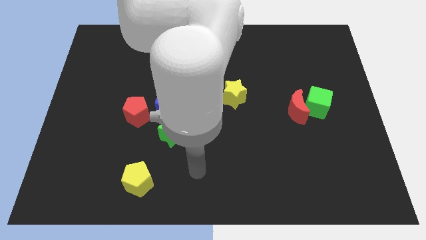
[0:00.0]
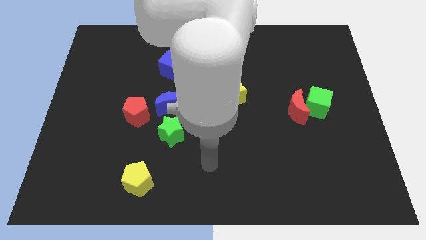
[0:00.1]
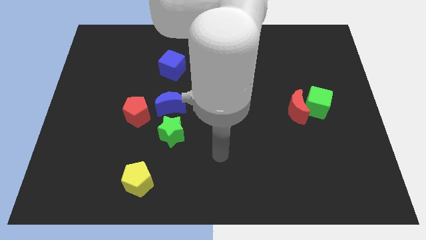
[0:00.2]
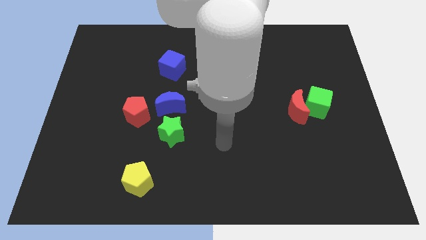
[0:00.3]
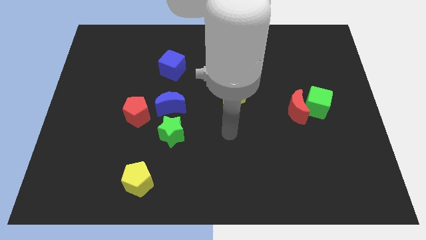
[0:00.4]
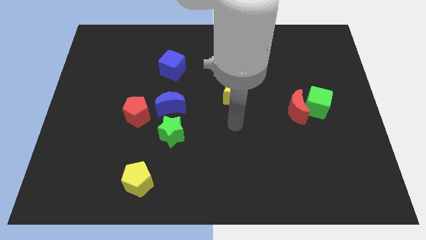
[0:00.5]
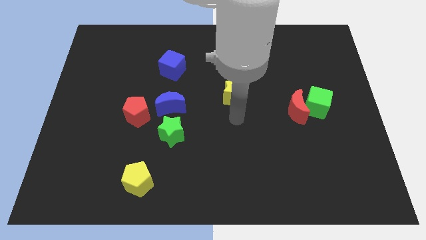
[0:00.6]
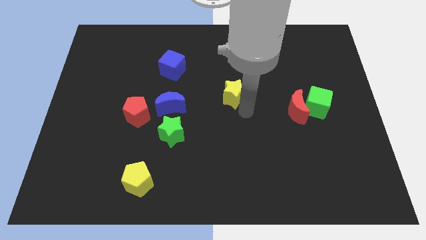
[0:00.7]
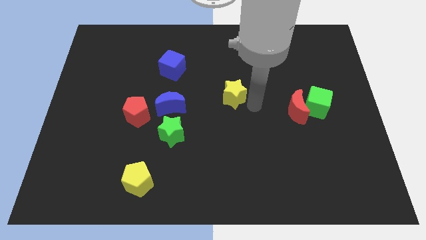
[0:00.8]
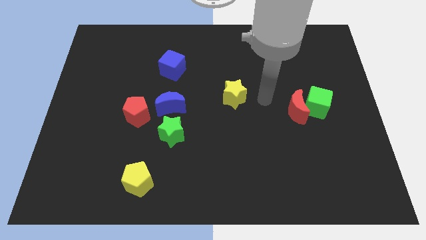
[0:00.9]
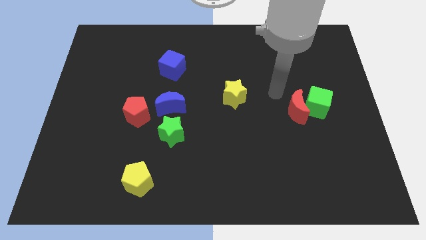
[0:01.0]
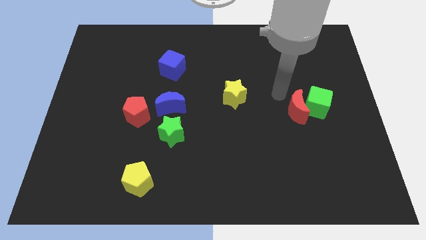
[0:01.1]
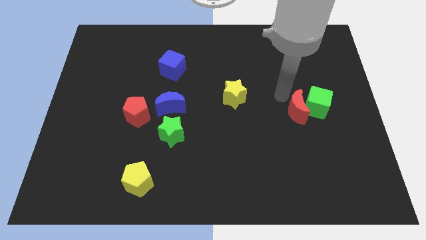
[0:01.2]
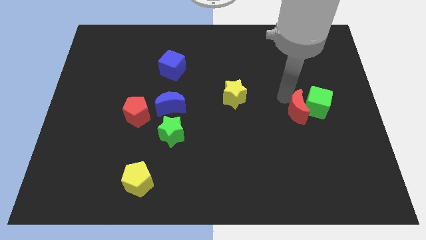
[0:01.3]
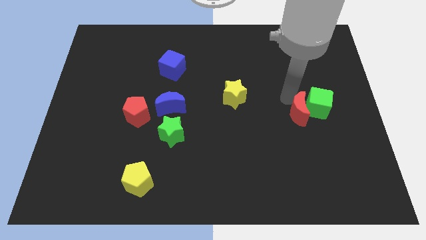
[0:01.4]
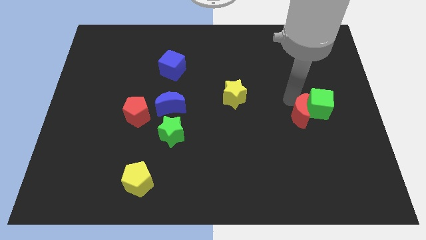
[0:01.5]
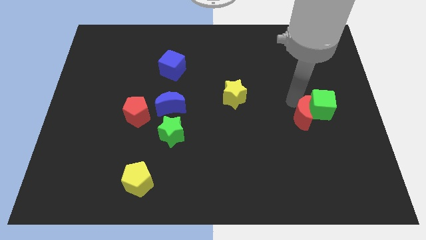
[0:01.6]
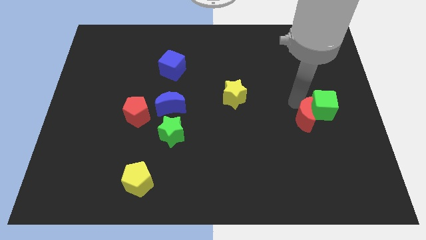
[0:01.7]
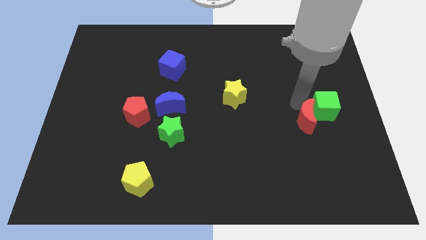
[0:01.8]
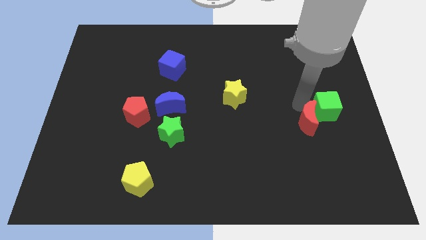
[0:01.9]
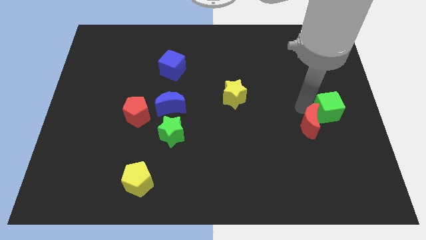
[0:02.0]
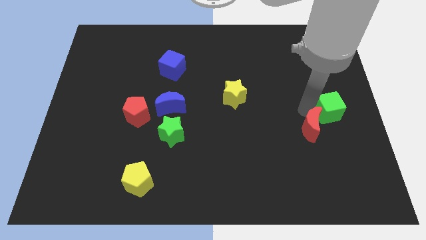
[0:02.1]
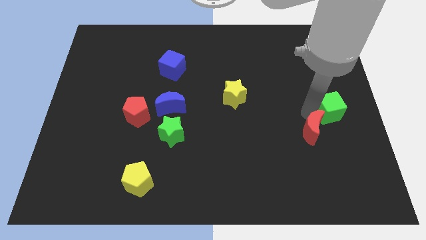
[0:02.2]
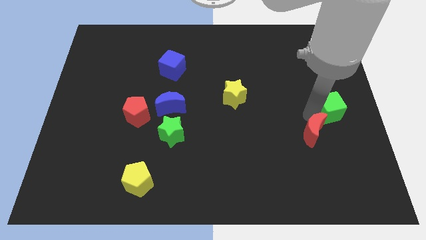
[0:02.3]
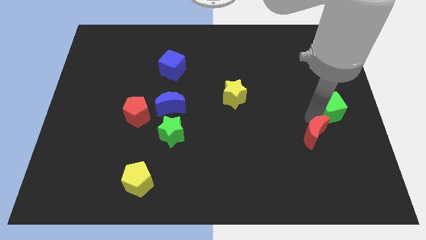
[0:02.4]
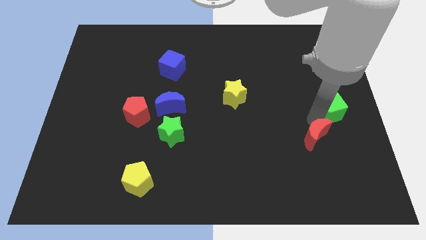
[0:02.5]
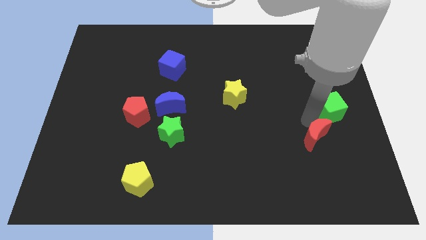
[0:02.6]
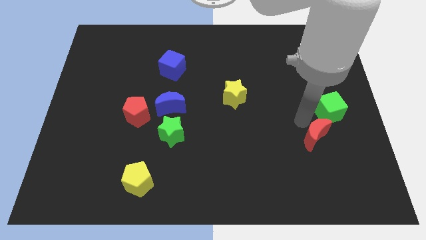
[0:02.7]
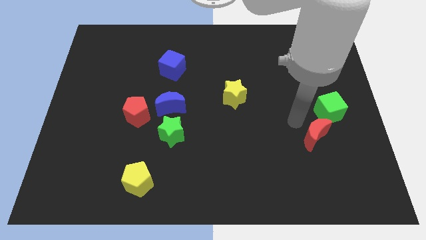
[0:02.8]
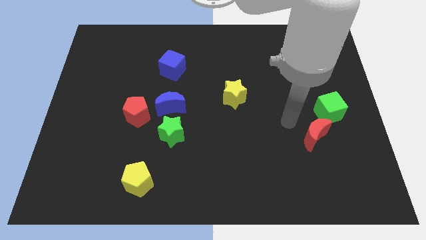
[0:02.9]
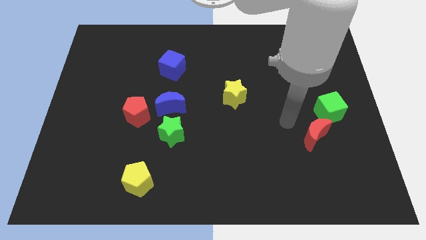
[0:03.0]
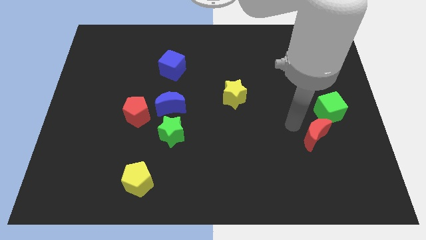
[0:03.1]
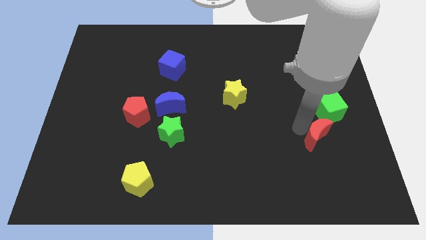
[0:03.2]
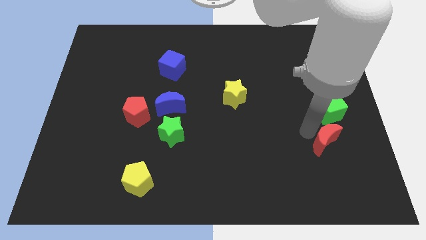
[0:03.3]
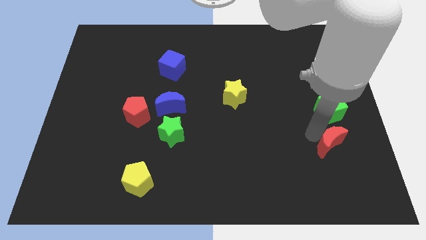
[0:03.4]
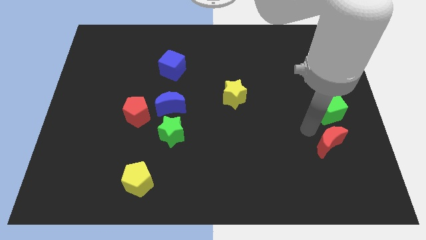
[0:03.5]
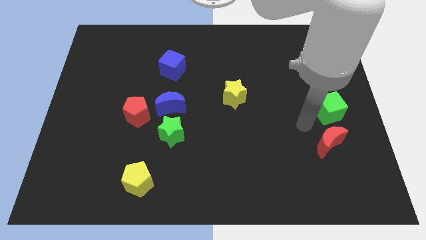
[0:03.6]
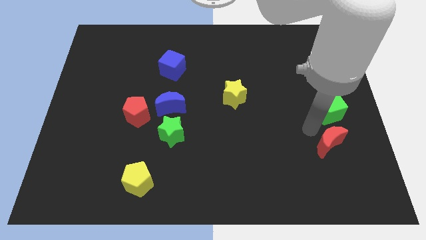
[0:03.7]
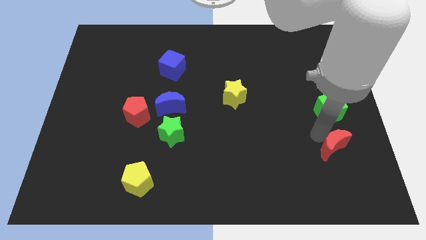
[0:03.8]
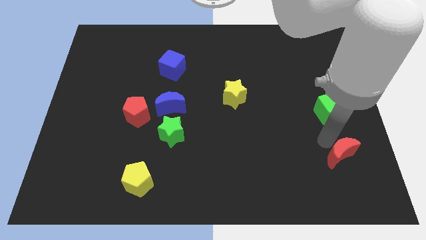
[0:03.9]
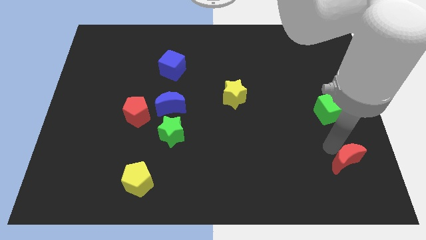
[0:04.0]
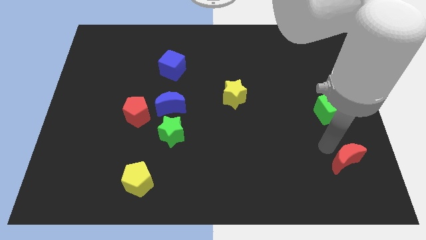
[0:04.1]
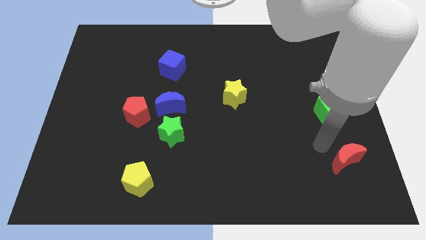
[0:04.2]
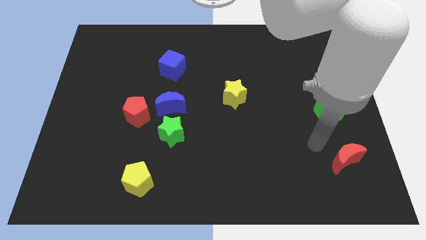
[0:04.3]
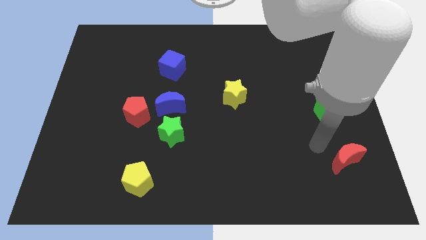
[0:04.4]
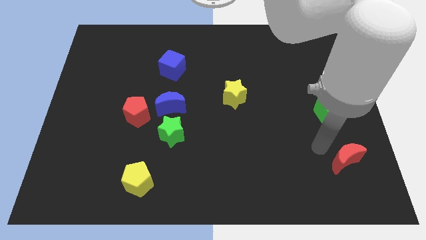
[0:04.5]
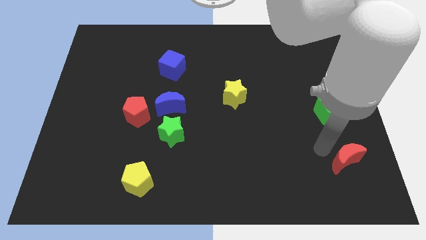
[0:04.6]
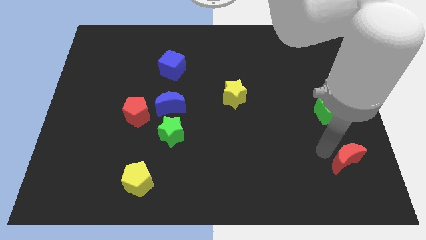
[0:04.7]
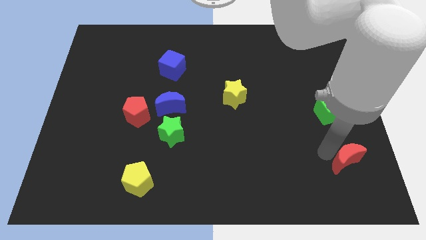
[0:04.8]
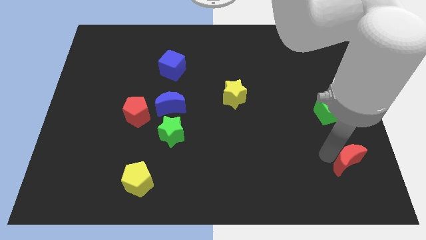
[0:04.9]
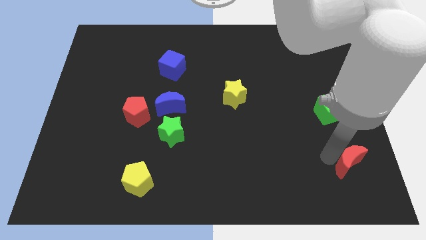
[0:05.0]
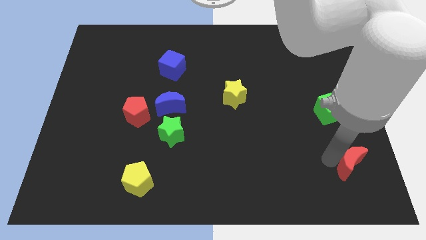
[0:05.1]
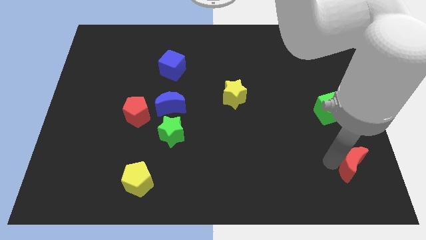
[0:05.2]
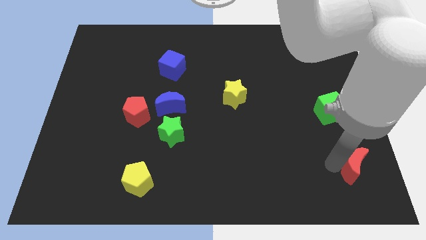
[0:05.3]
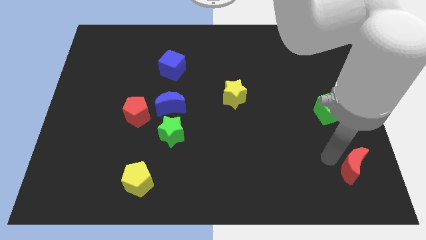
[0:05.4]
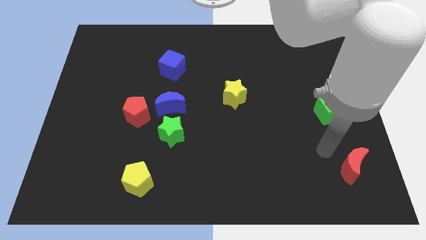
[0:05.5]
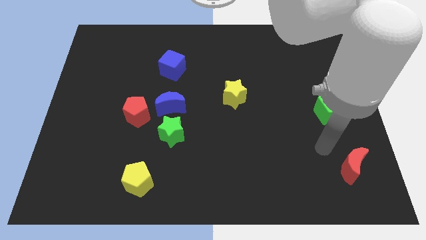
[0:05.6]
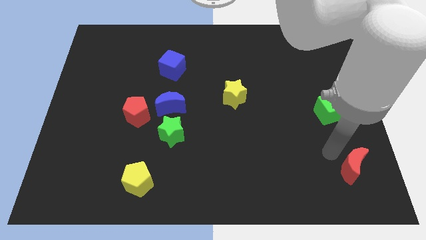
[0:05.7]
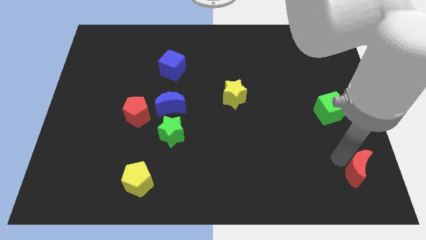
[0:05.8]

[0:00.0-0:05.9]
slide the red moon to the bottom right

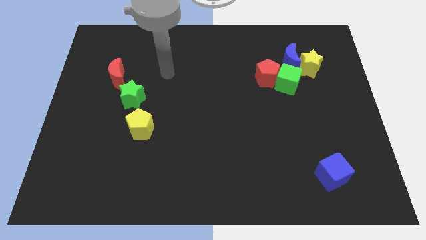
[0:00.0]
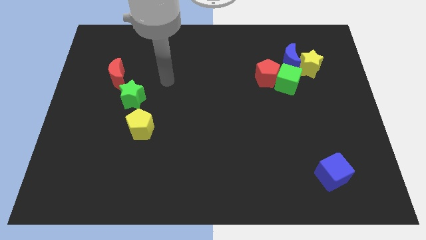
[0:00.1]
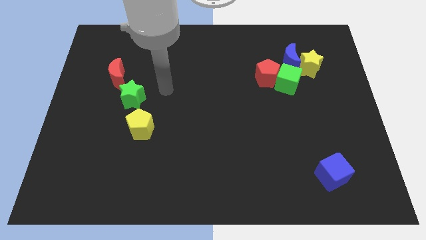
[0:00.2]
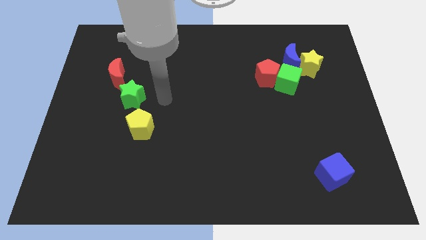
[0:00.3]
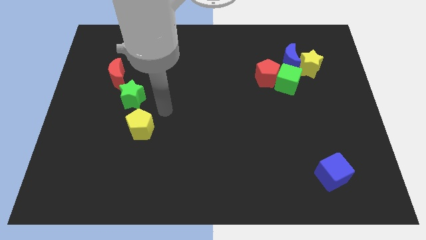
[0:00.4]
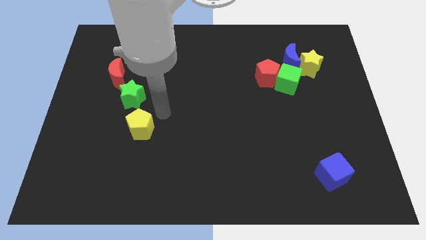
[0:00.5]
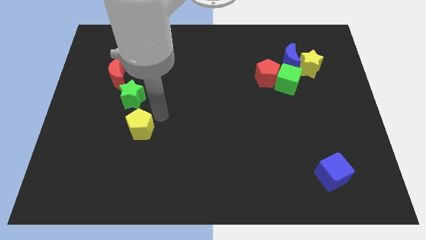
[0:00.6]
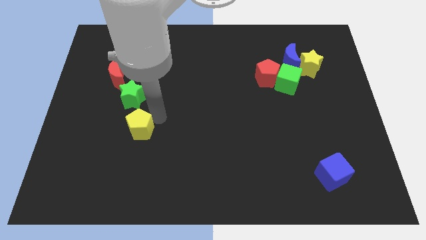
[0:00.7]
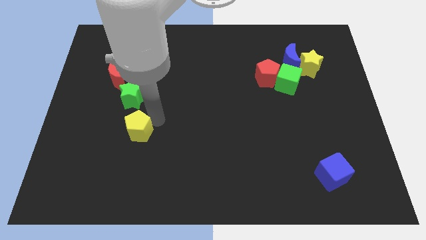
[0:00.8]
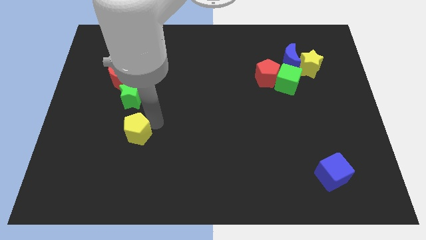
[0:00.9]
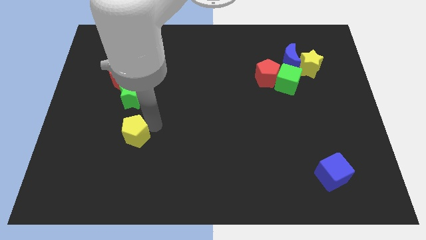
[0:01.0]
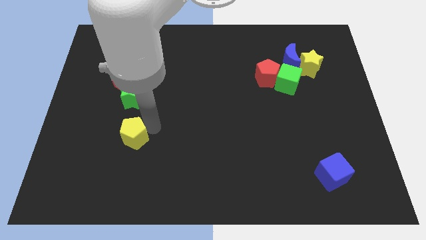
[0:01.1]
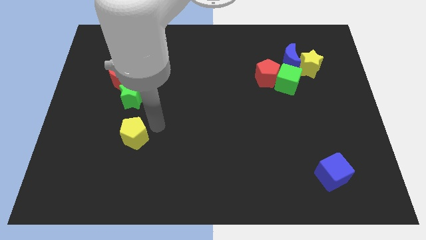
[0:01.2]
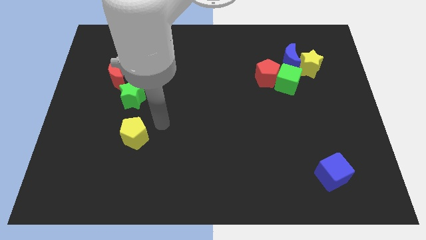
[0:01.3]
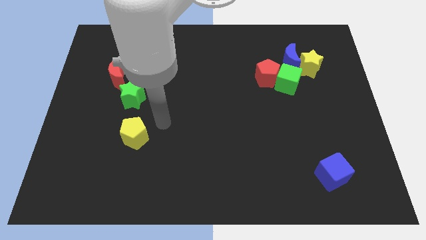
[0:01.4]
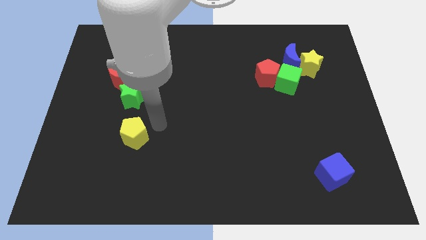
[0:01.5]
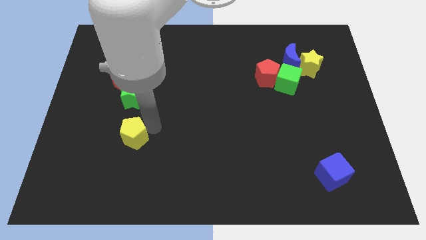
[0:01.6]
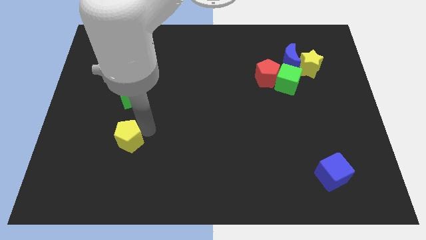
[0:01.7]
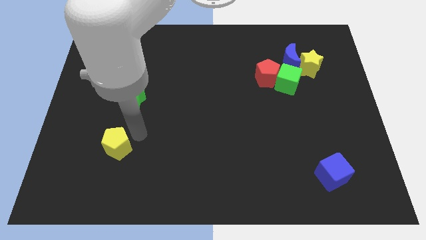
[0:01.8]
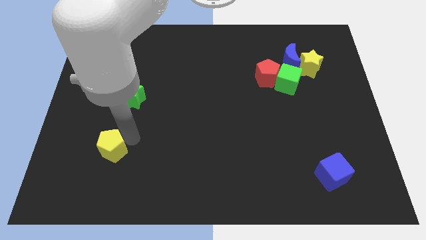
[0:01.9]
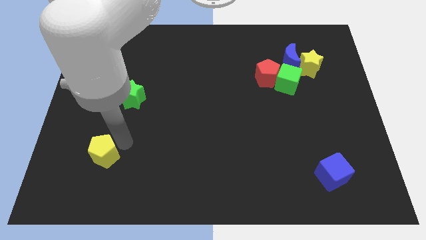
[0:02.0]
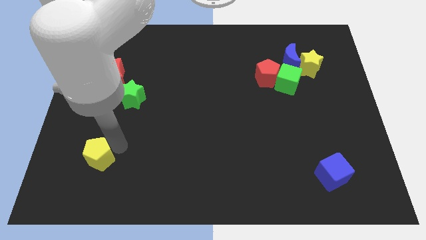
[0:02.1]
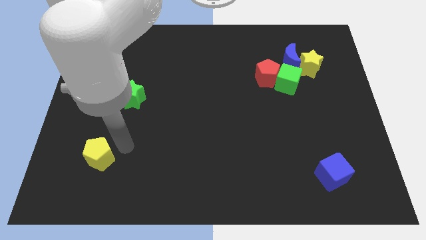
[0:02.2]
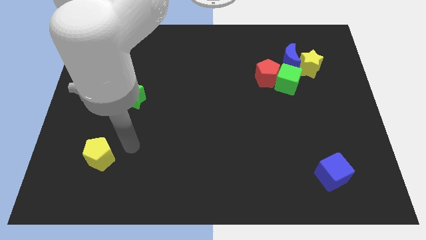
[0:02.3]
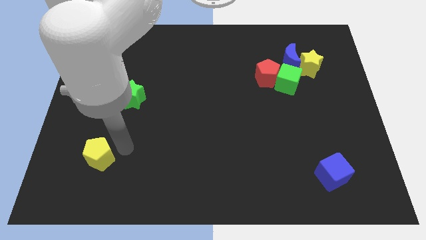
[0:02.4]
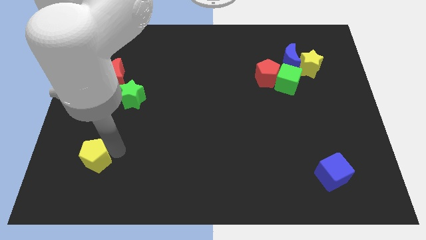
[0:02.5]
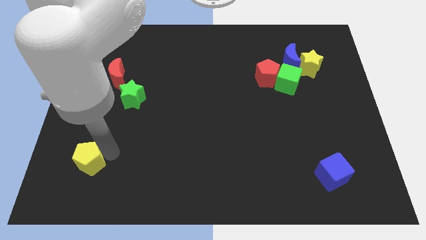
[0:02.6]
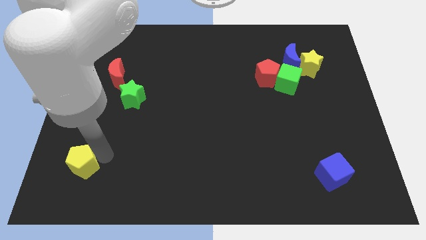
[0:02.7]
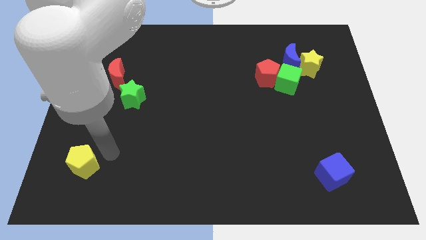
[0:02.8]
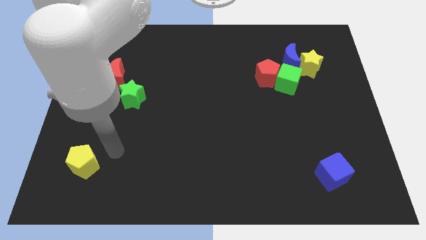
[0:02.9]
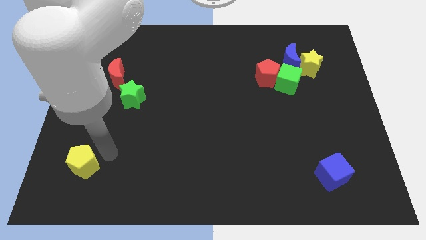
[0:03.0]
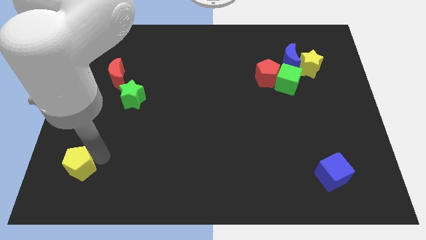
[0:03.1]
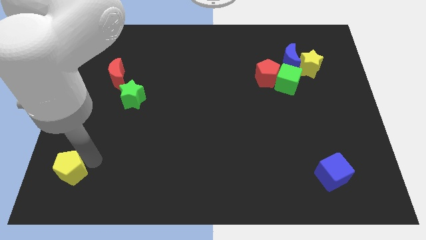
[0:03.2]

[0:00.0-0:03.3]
slide the yellow pentagon to the bottom left of the board
